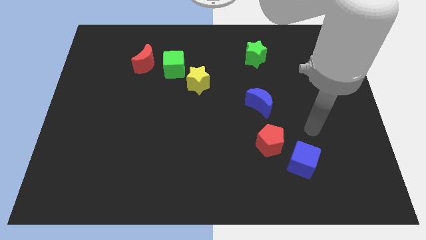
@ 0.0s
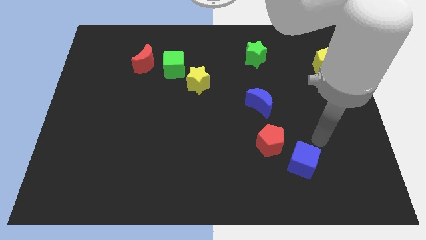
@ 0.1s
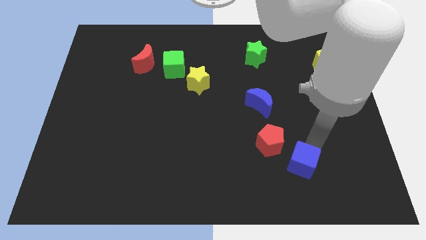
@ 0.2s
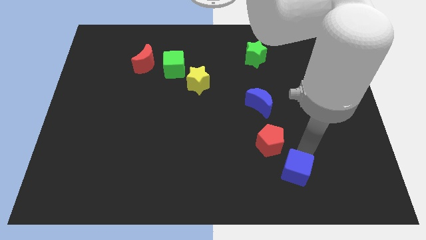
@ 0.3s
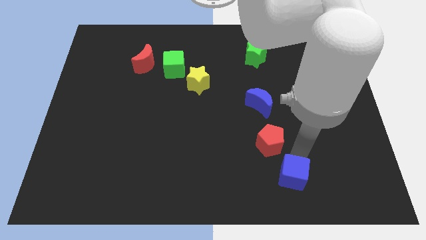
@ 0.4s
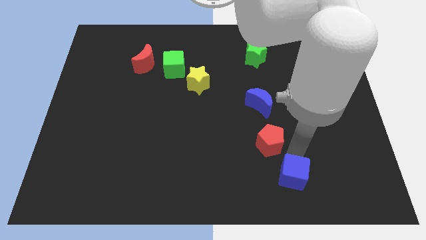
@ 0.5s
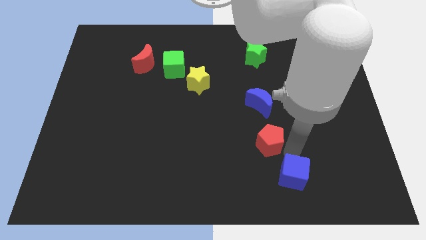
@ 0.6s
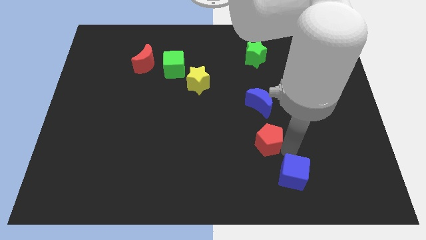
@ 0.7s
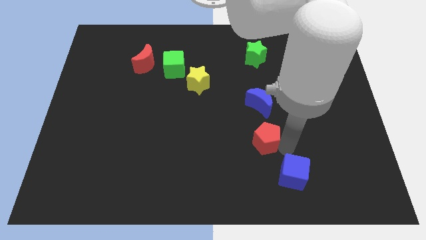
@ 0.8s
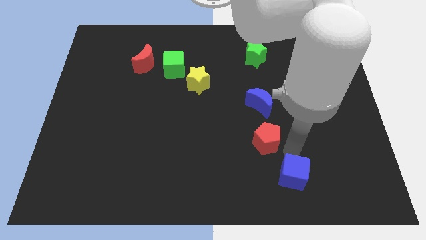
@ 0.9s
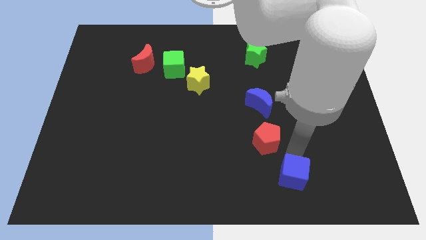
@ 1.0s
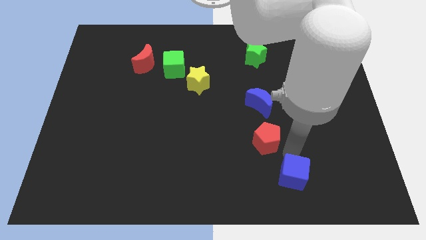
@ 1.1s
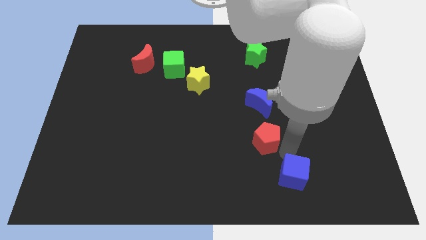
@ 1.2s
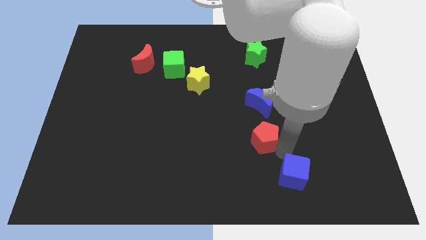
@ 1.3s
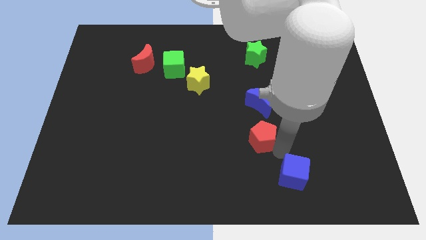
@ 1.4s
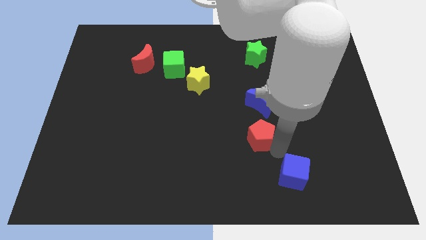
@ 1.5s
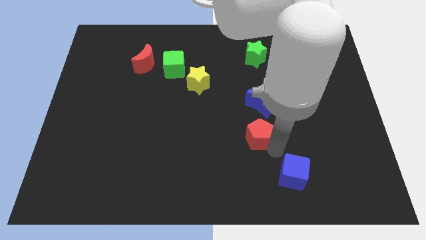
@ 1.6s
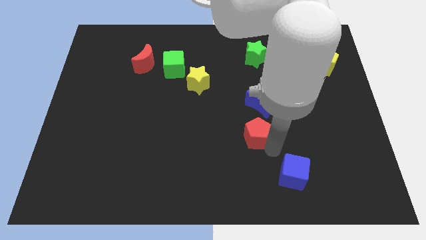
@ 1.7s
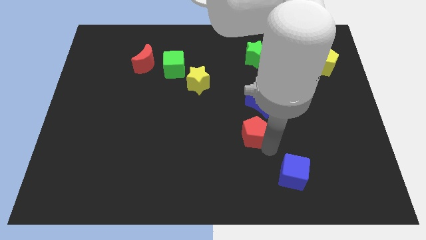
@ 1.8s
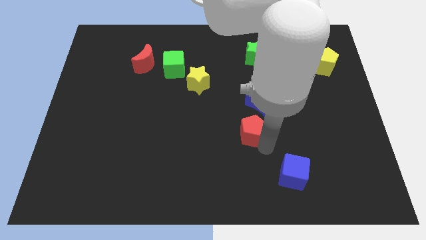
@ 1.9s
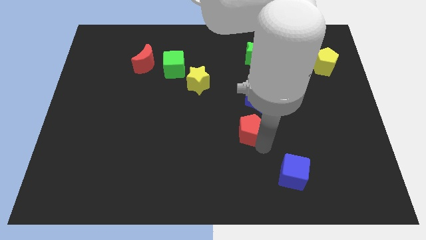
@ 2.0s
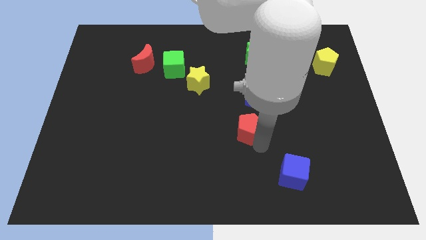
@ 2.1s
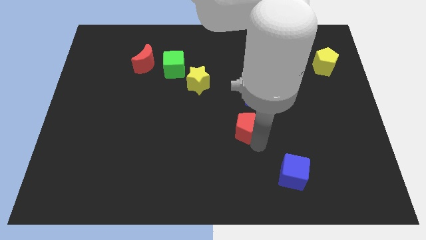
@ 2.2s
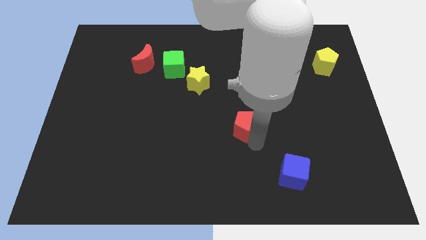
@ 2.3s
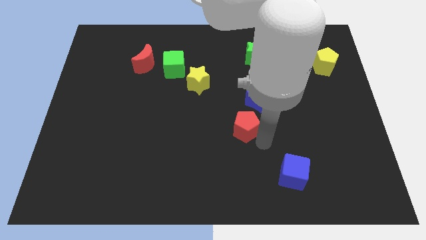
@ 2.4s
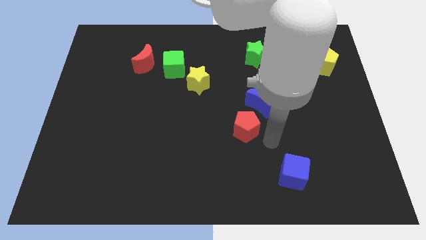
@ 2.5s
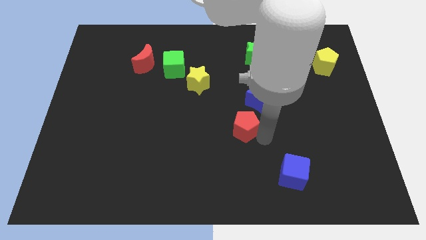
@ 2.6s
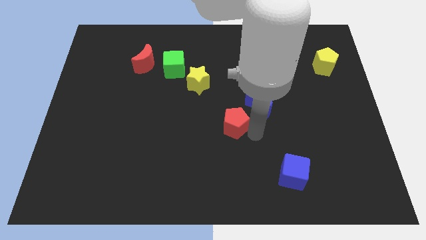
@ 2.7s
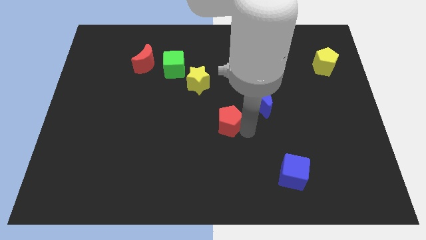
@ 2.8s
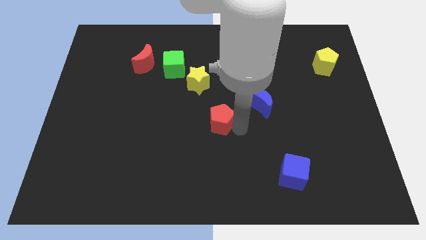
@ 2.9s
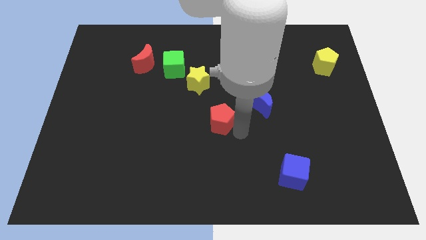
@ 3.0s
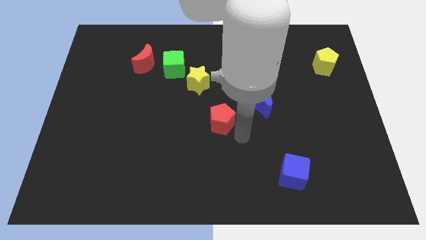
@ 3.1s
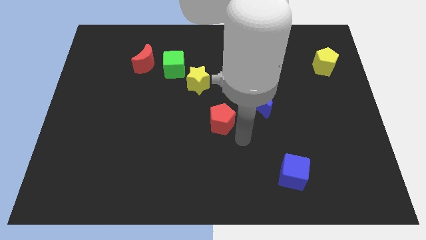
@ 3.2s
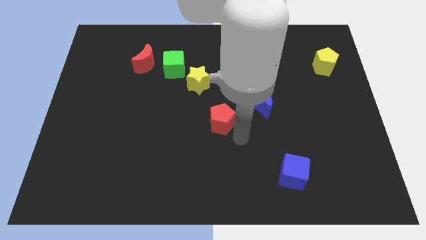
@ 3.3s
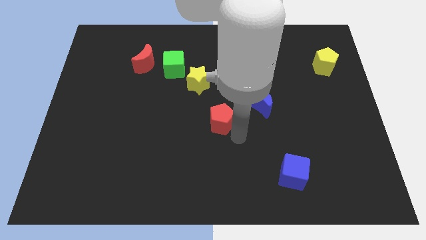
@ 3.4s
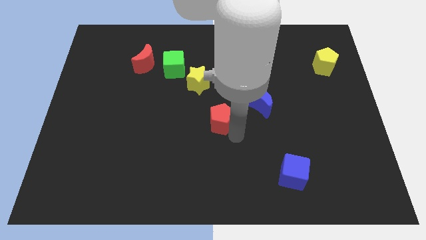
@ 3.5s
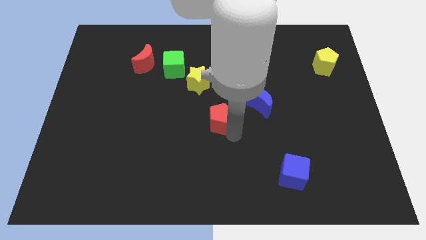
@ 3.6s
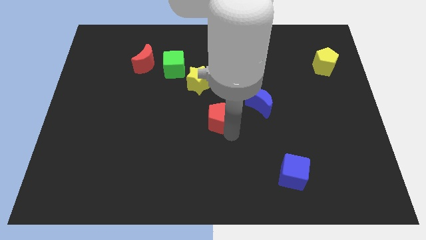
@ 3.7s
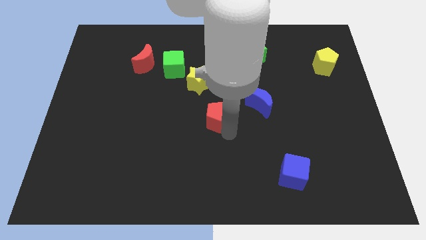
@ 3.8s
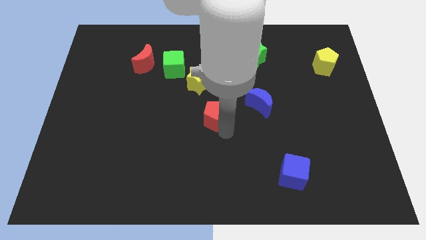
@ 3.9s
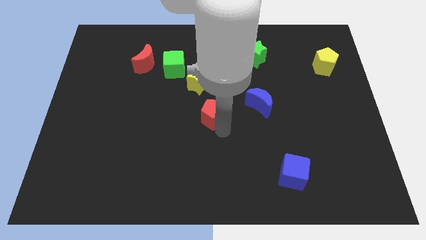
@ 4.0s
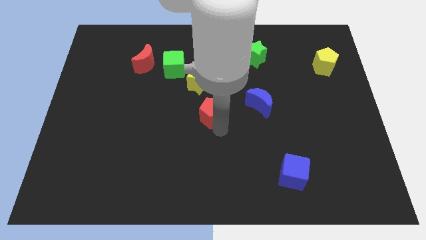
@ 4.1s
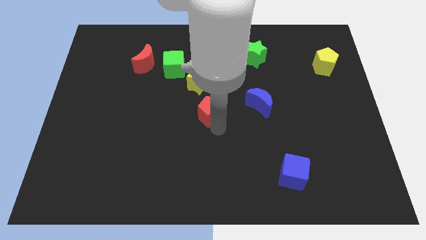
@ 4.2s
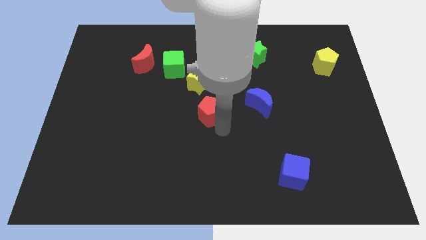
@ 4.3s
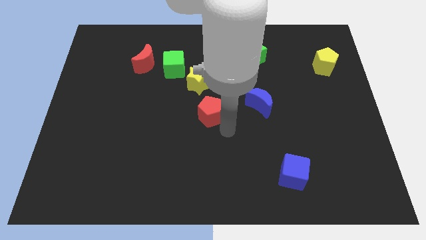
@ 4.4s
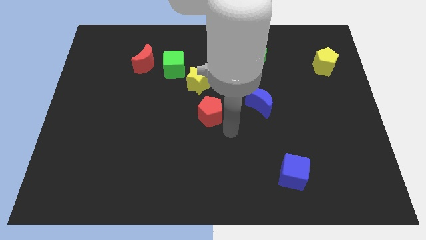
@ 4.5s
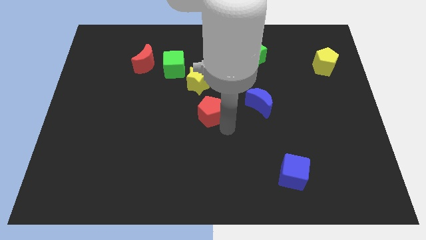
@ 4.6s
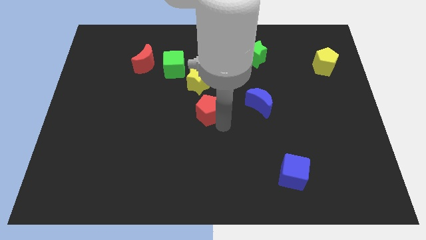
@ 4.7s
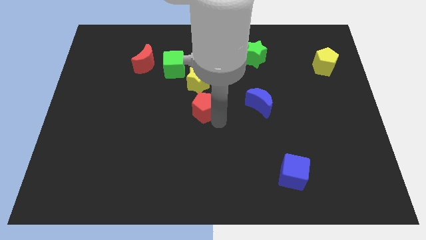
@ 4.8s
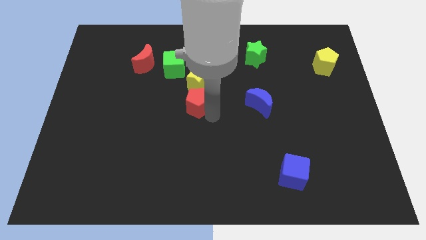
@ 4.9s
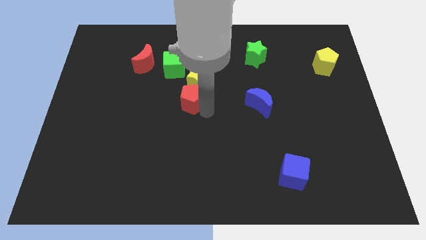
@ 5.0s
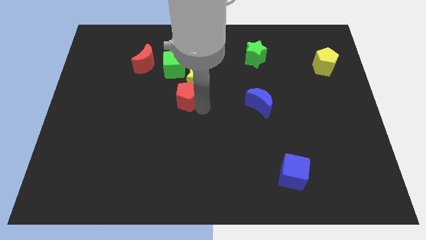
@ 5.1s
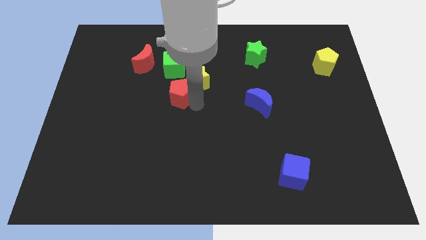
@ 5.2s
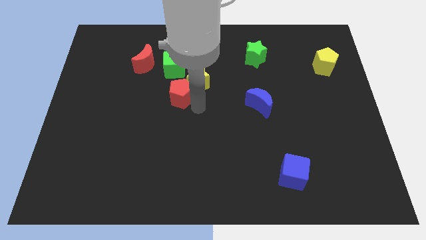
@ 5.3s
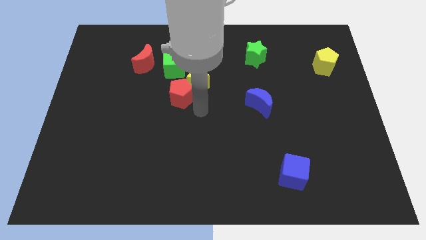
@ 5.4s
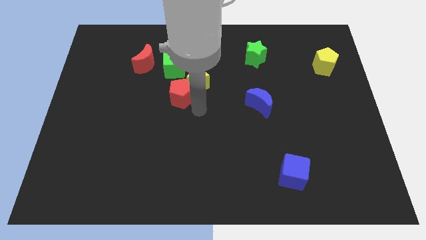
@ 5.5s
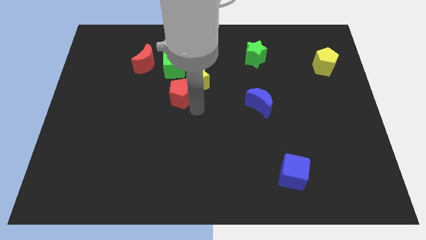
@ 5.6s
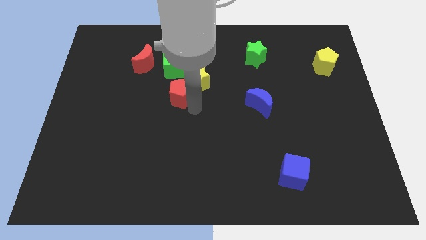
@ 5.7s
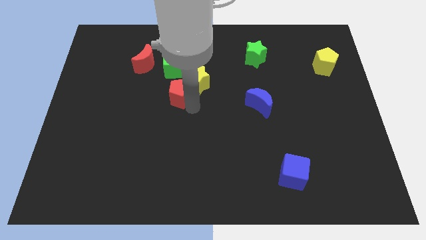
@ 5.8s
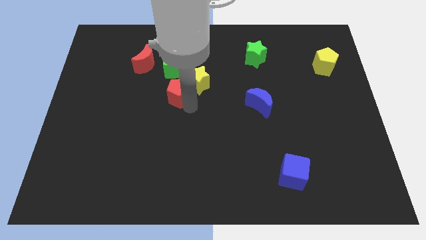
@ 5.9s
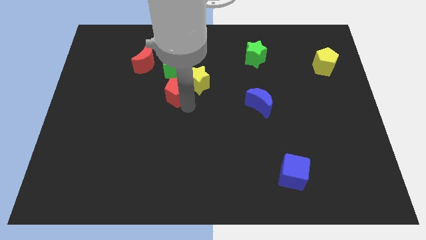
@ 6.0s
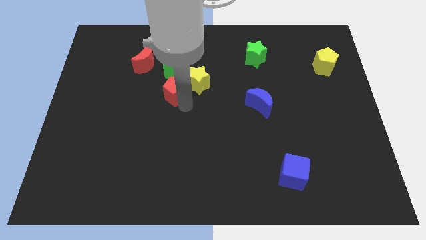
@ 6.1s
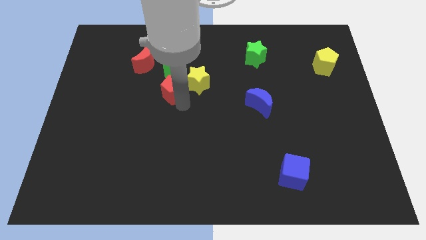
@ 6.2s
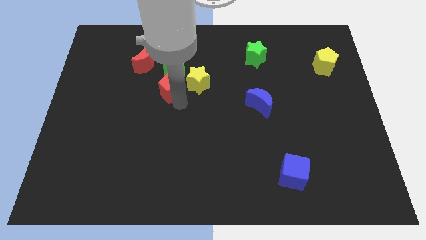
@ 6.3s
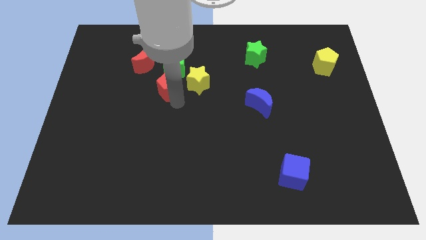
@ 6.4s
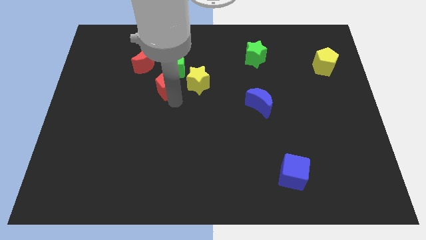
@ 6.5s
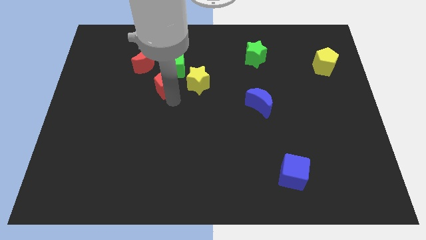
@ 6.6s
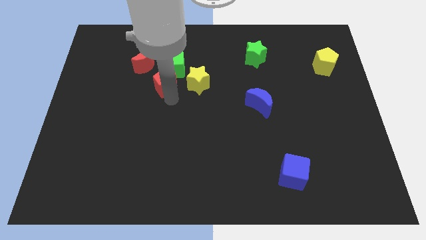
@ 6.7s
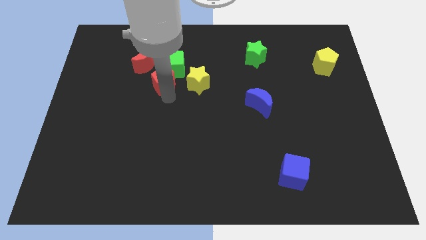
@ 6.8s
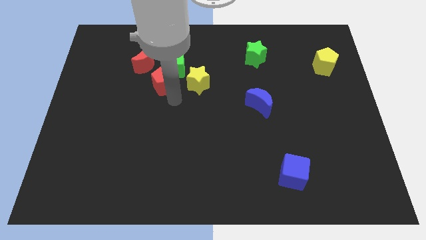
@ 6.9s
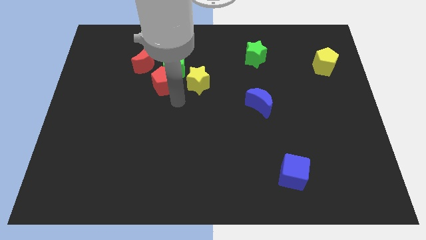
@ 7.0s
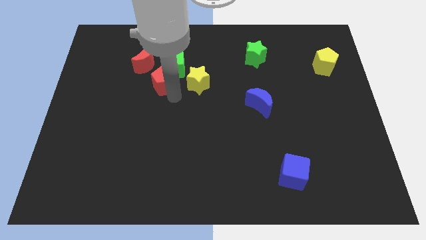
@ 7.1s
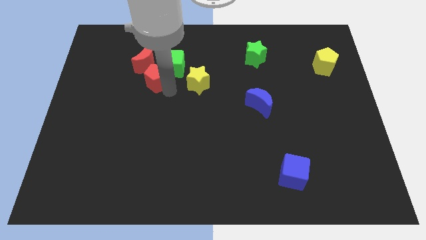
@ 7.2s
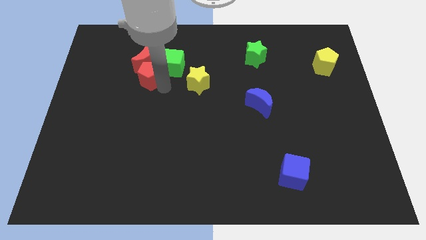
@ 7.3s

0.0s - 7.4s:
slide the red pentagon close to the red moon

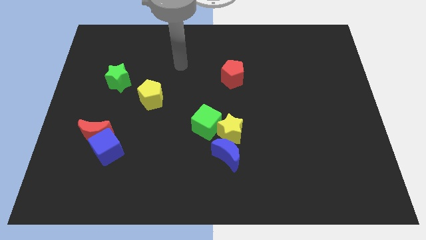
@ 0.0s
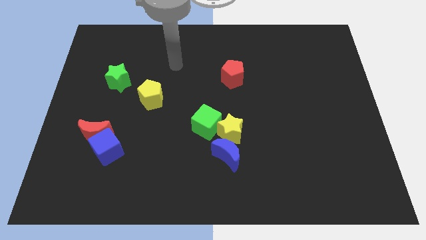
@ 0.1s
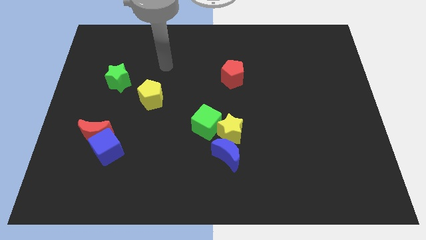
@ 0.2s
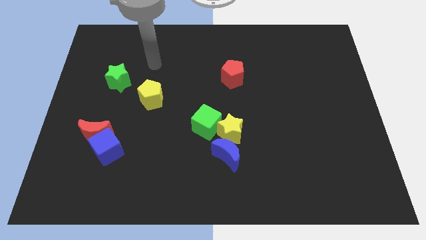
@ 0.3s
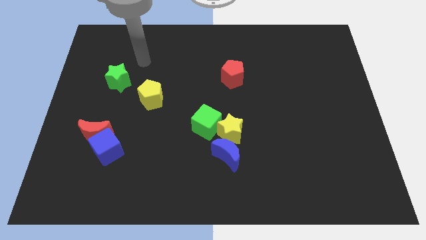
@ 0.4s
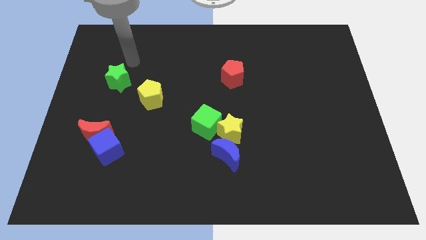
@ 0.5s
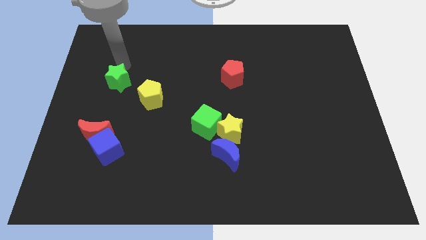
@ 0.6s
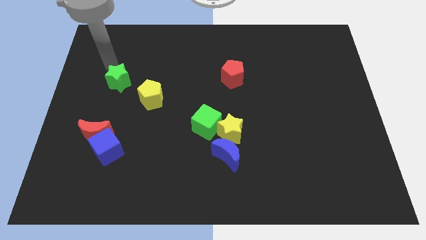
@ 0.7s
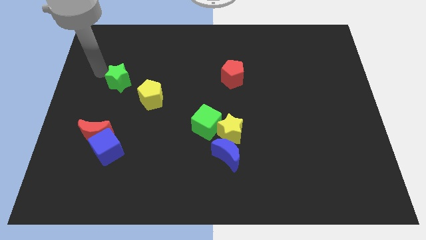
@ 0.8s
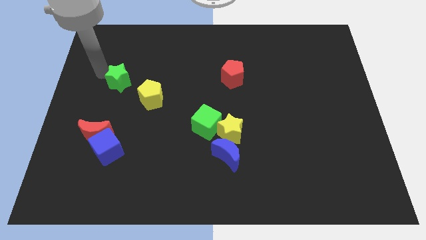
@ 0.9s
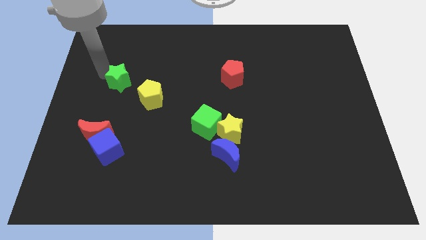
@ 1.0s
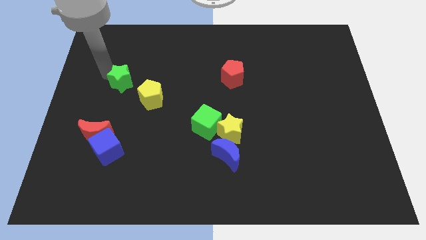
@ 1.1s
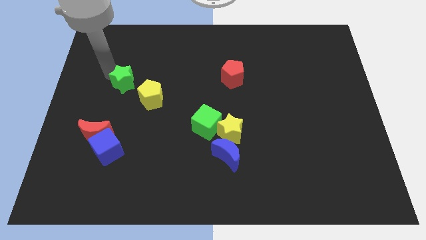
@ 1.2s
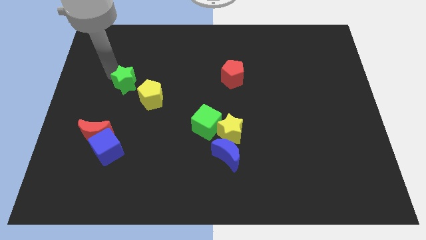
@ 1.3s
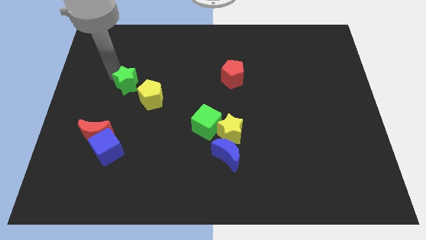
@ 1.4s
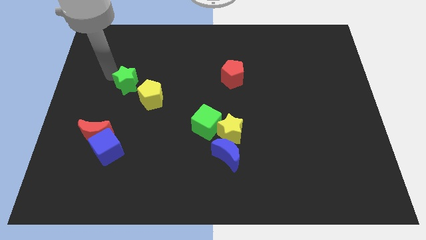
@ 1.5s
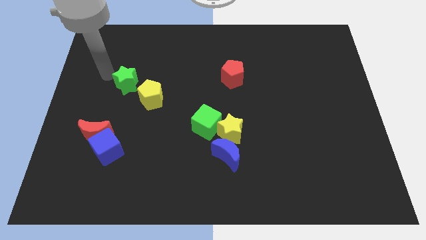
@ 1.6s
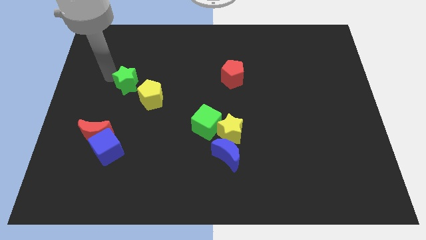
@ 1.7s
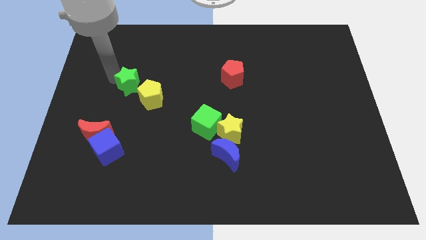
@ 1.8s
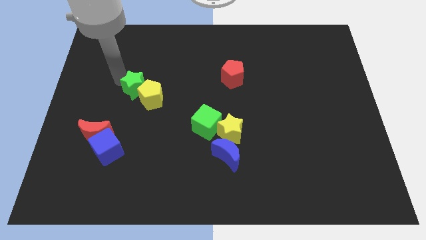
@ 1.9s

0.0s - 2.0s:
move the green star to the yellow pentagon
